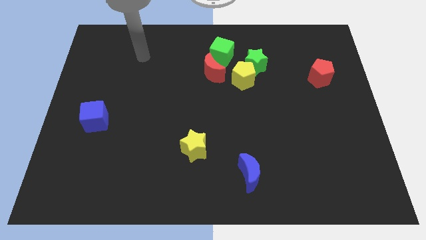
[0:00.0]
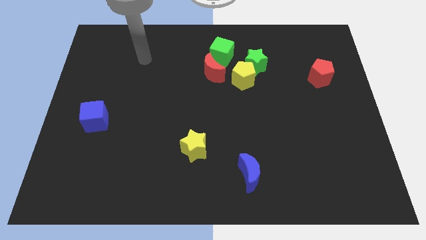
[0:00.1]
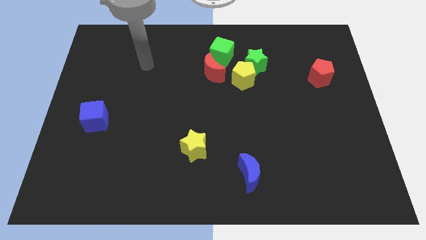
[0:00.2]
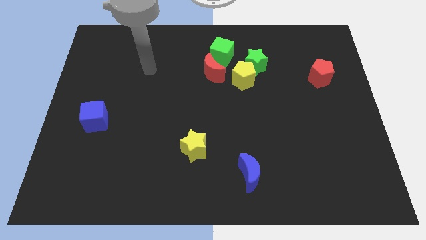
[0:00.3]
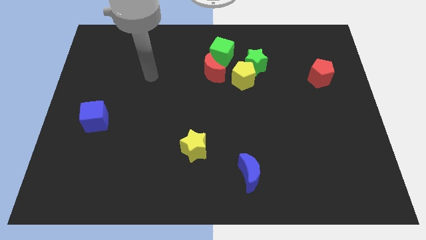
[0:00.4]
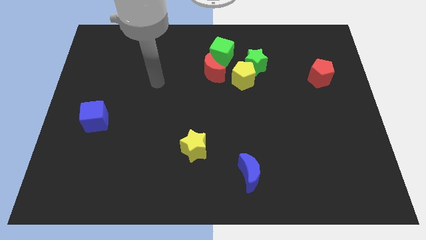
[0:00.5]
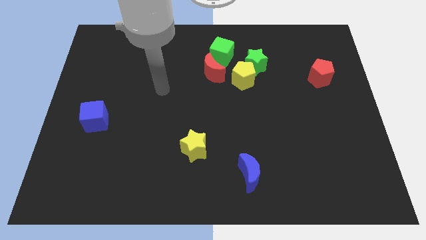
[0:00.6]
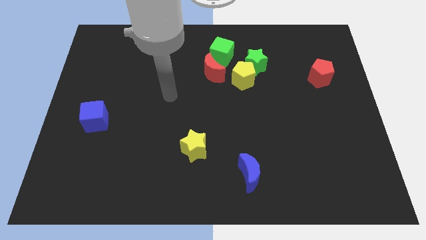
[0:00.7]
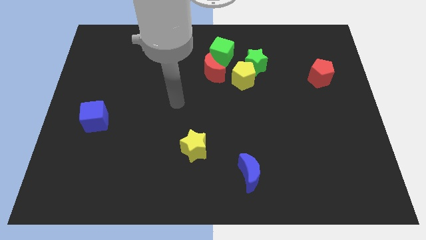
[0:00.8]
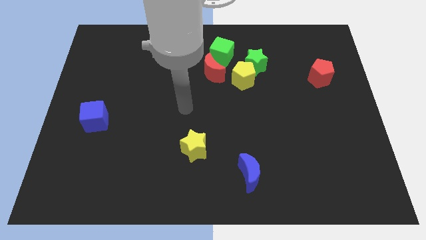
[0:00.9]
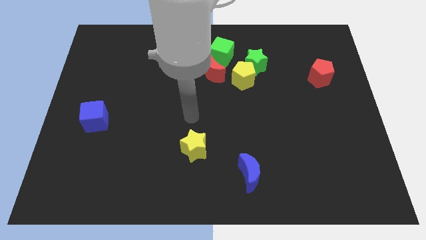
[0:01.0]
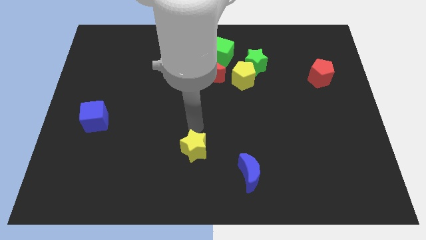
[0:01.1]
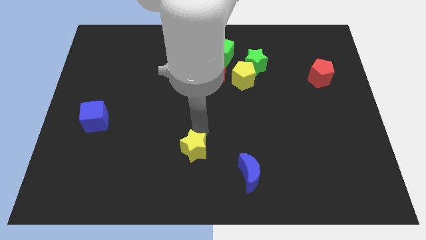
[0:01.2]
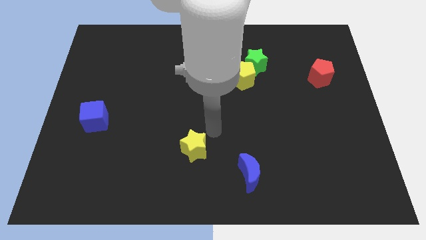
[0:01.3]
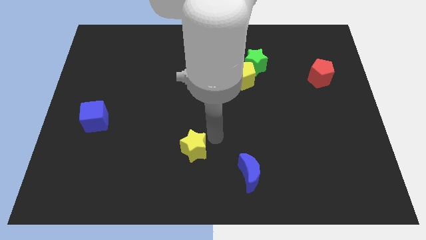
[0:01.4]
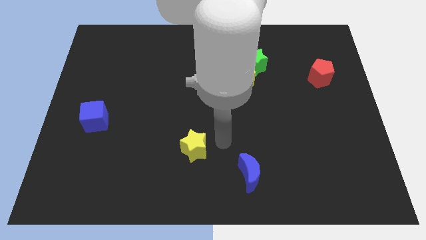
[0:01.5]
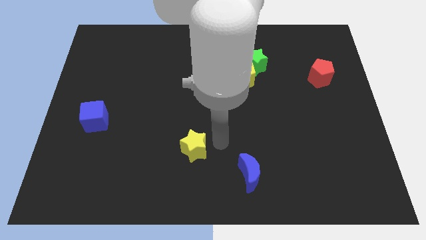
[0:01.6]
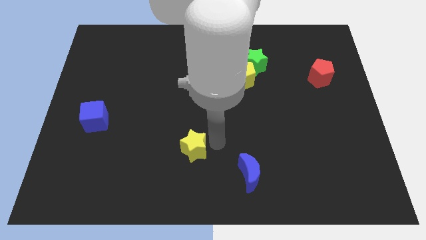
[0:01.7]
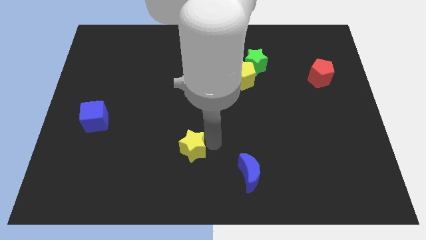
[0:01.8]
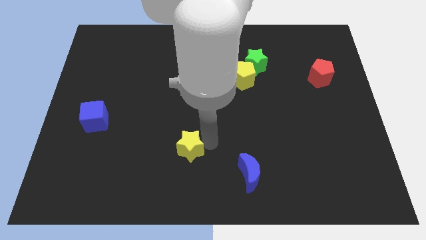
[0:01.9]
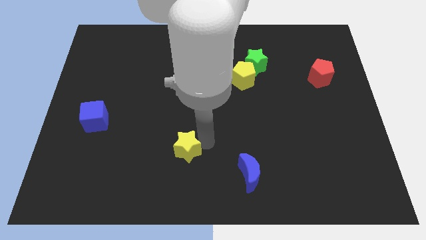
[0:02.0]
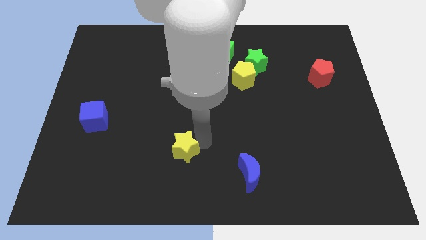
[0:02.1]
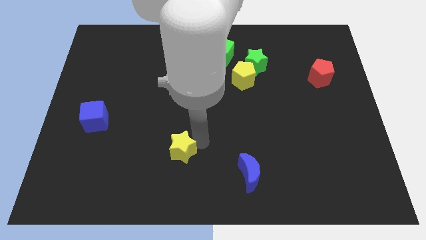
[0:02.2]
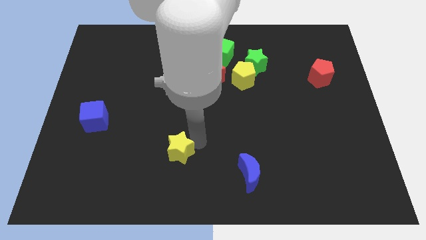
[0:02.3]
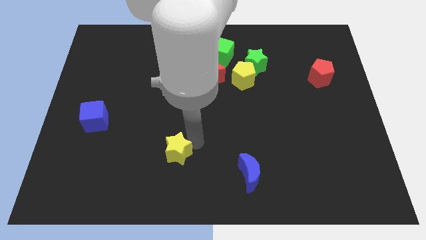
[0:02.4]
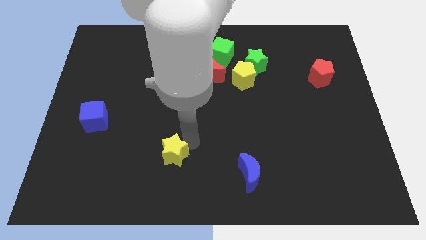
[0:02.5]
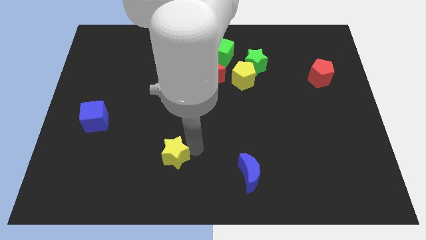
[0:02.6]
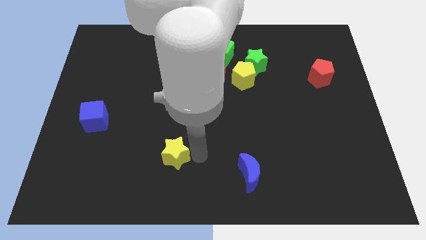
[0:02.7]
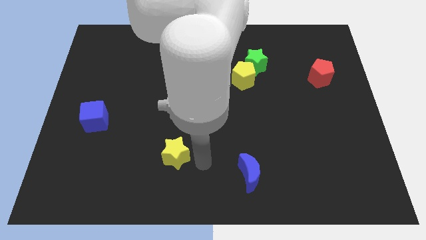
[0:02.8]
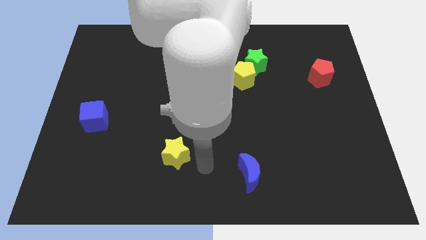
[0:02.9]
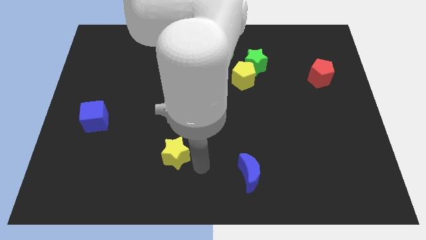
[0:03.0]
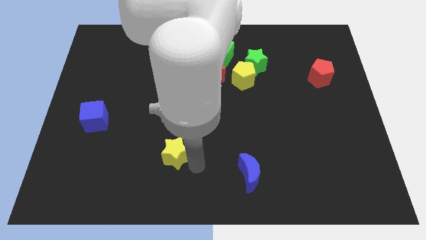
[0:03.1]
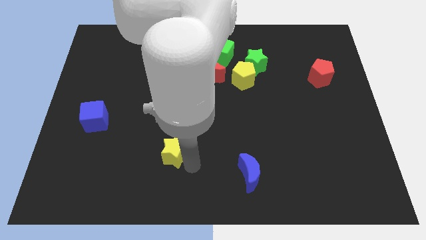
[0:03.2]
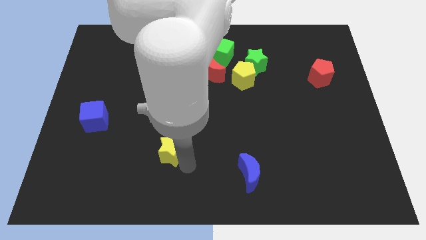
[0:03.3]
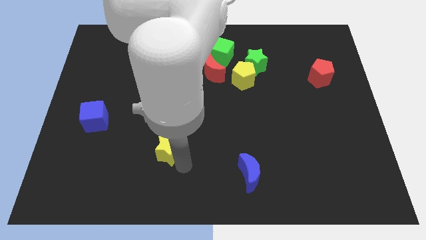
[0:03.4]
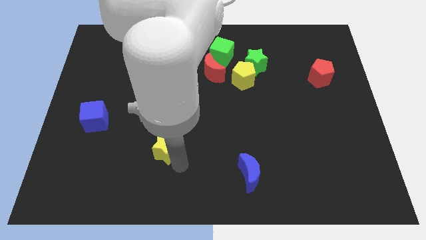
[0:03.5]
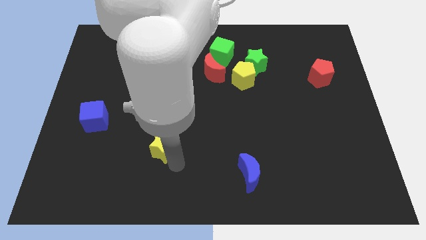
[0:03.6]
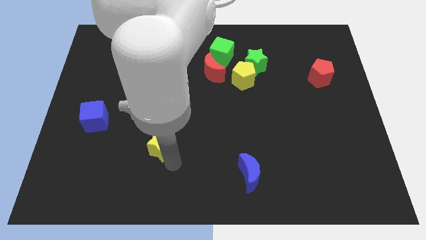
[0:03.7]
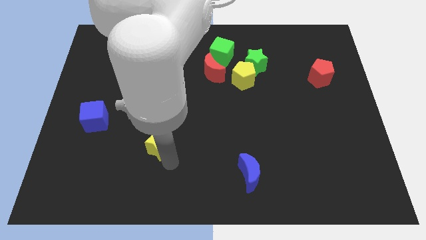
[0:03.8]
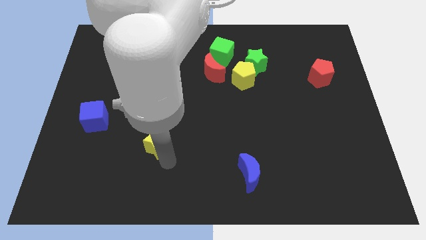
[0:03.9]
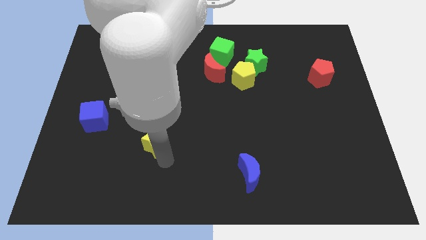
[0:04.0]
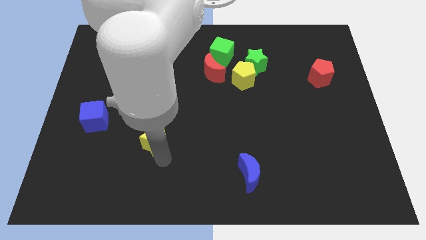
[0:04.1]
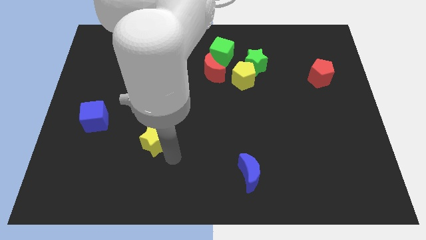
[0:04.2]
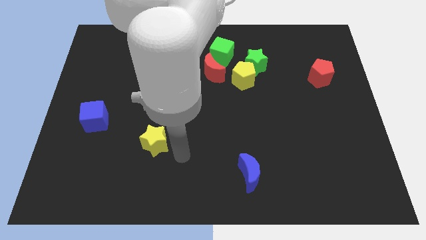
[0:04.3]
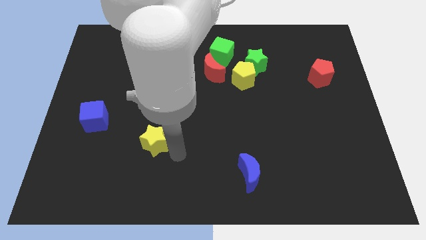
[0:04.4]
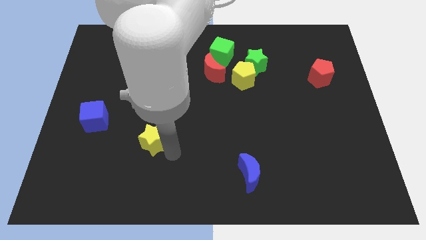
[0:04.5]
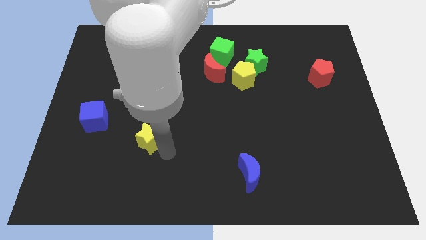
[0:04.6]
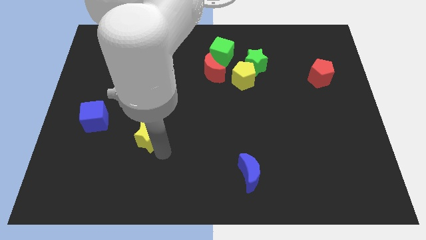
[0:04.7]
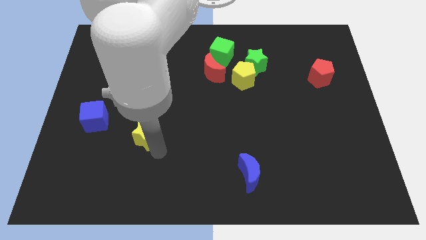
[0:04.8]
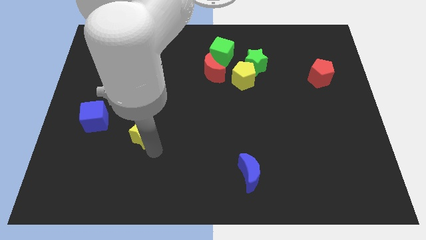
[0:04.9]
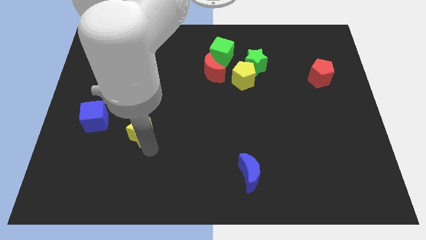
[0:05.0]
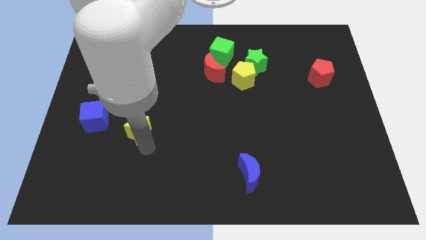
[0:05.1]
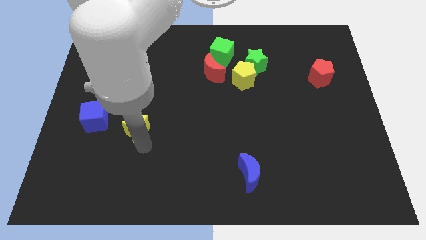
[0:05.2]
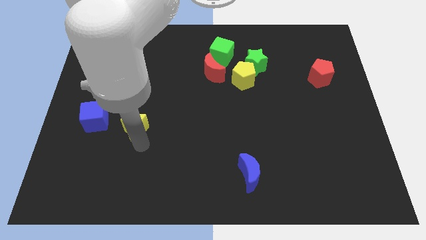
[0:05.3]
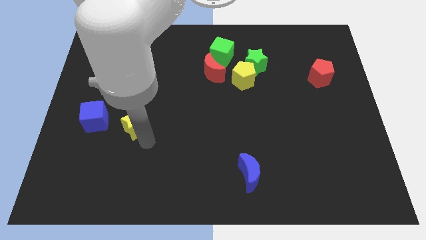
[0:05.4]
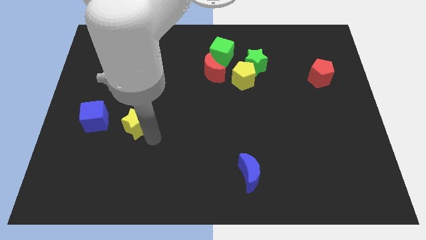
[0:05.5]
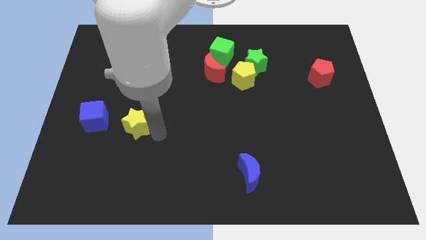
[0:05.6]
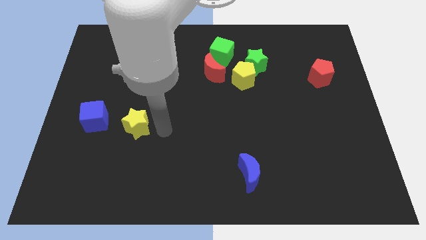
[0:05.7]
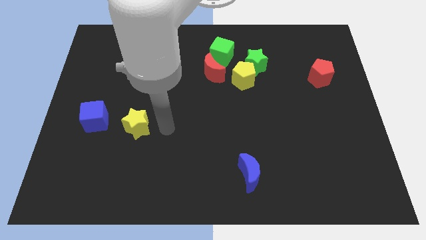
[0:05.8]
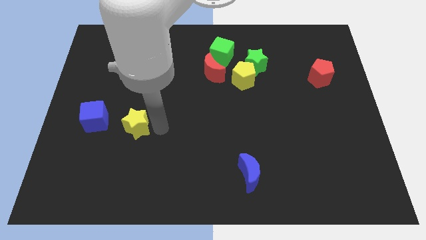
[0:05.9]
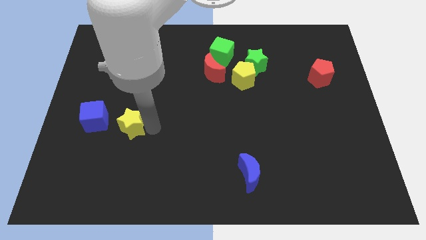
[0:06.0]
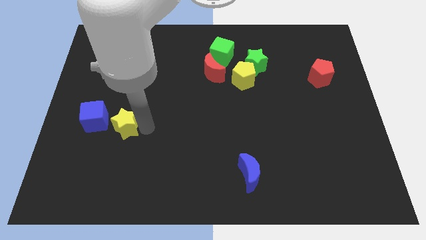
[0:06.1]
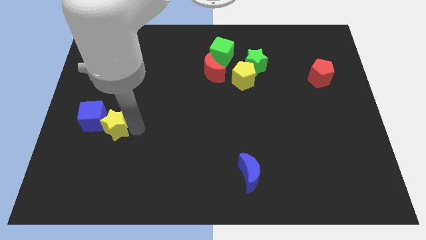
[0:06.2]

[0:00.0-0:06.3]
move the yellow star next to the blue cube

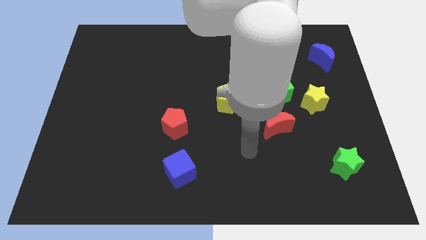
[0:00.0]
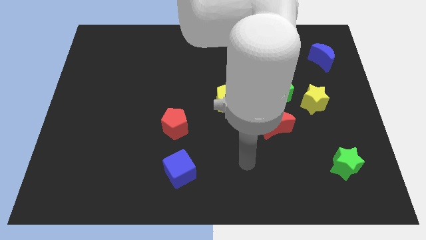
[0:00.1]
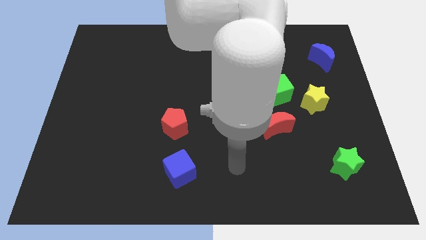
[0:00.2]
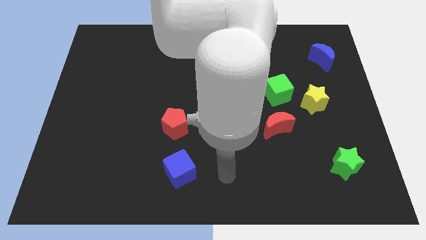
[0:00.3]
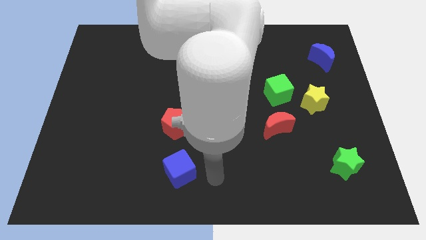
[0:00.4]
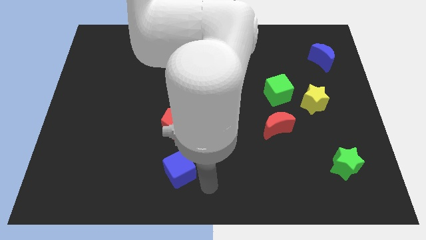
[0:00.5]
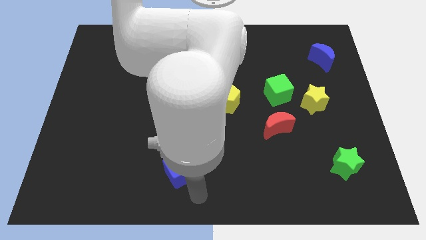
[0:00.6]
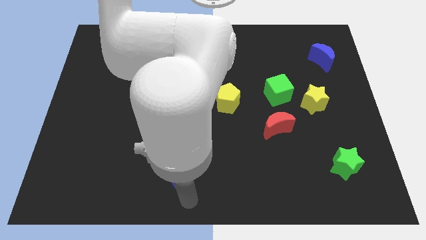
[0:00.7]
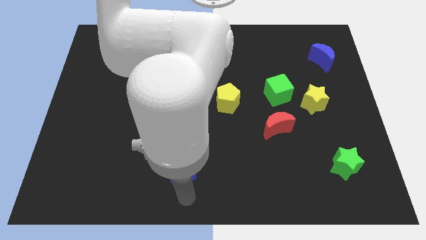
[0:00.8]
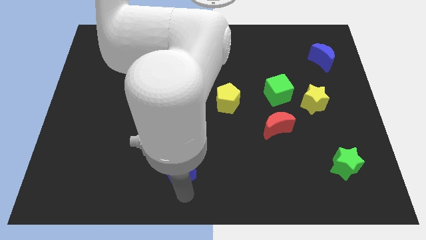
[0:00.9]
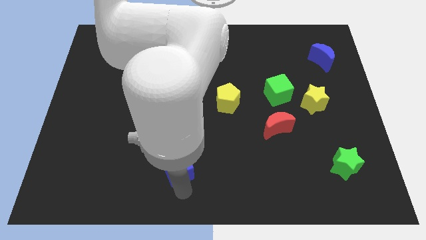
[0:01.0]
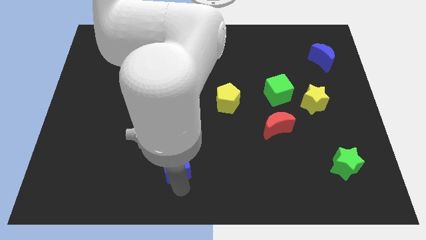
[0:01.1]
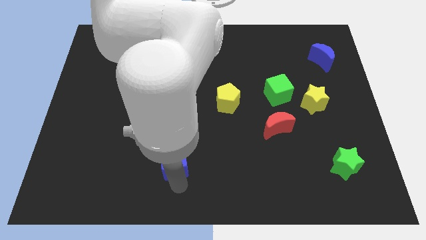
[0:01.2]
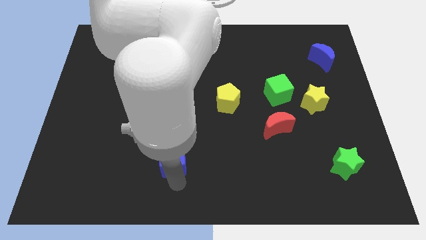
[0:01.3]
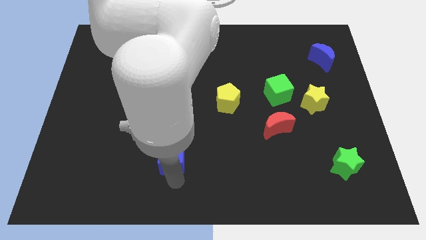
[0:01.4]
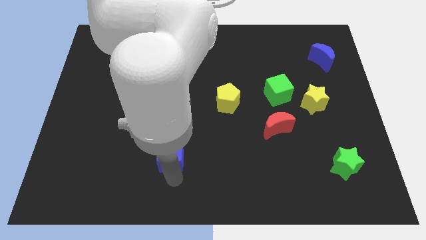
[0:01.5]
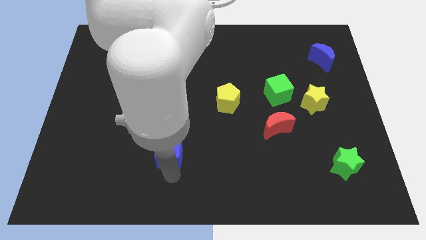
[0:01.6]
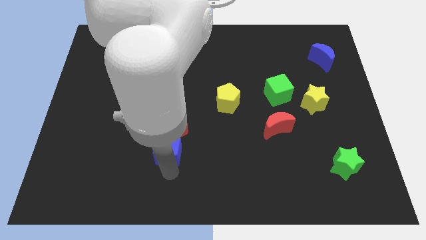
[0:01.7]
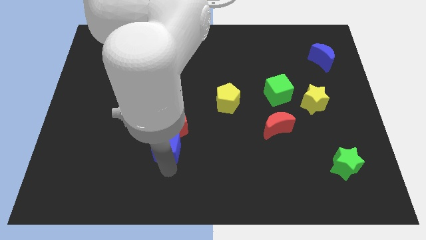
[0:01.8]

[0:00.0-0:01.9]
push the blue cube towards the red pentagon

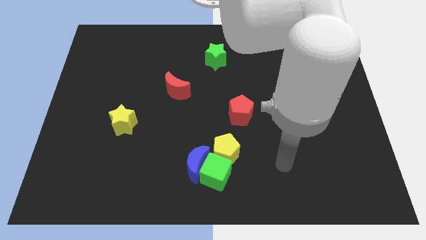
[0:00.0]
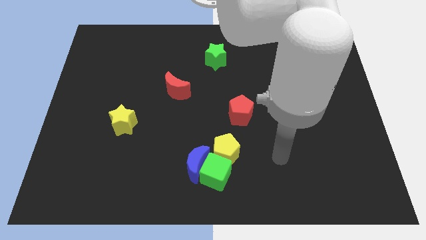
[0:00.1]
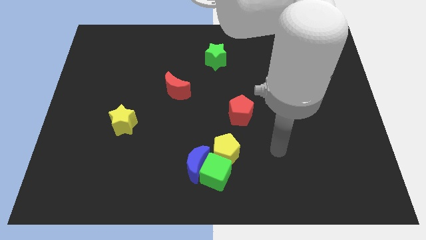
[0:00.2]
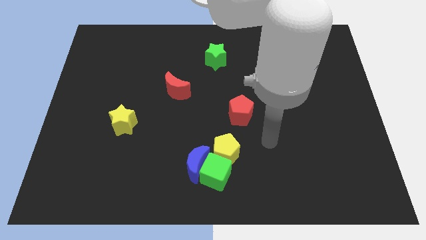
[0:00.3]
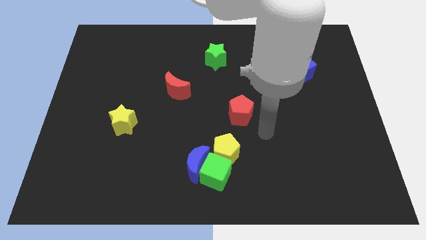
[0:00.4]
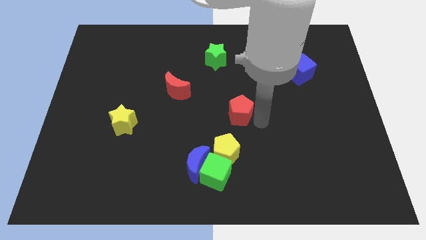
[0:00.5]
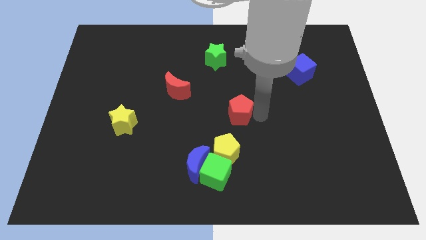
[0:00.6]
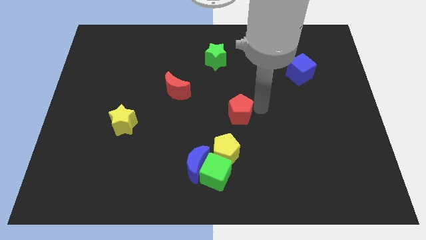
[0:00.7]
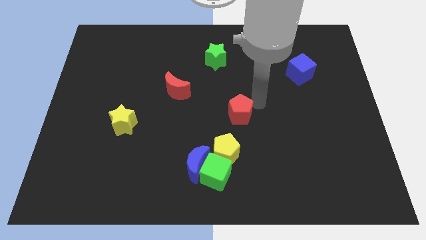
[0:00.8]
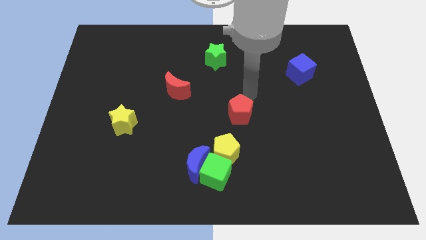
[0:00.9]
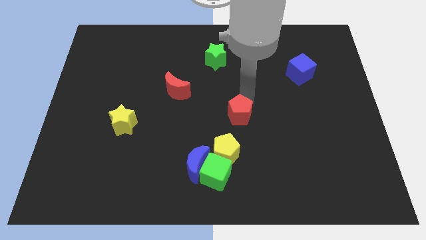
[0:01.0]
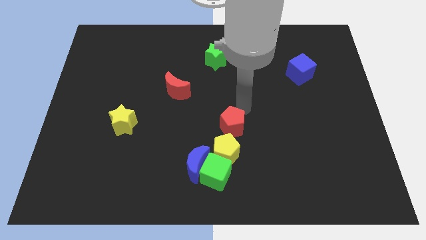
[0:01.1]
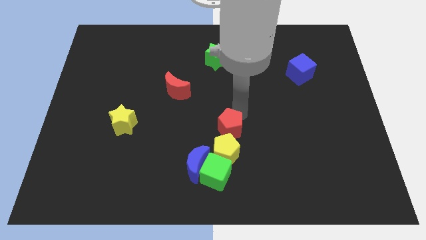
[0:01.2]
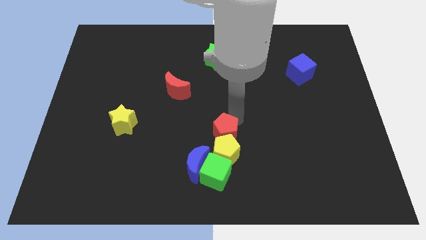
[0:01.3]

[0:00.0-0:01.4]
push the red pentagon to the yellow pentagon
